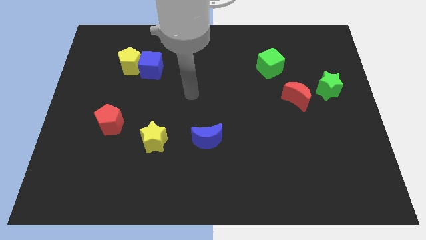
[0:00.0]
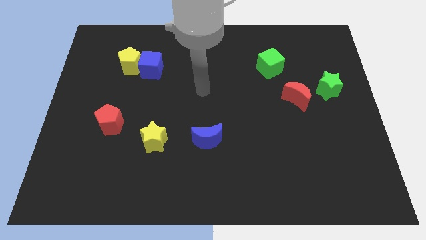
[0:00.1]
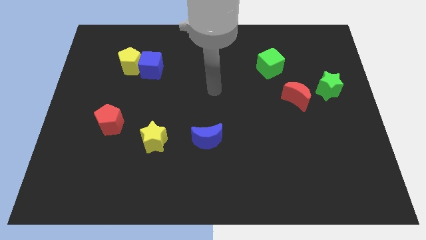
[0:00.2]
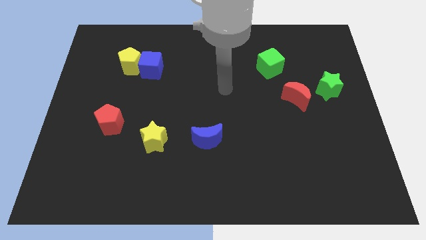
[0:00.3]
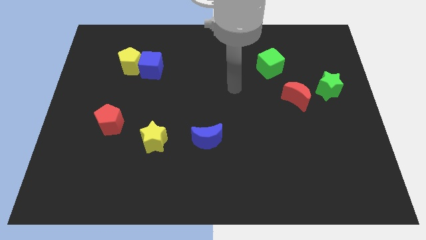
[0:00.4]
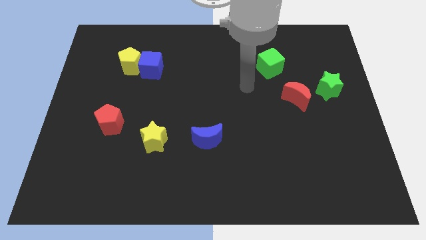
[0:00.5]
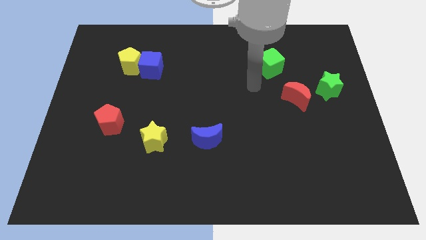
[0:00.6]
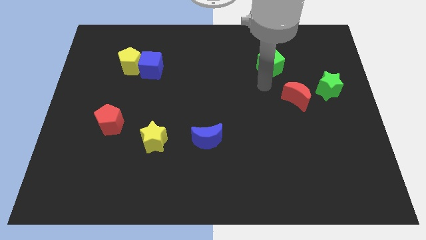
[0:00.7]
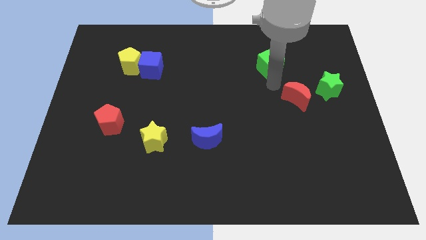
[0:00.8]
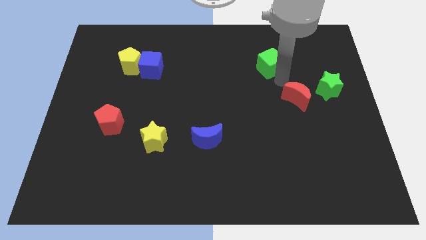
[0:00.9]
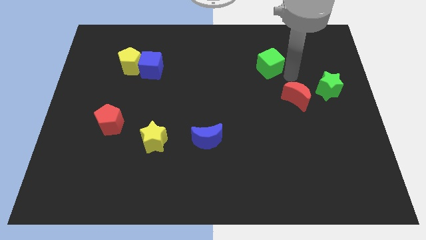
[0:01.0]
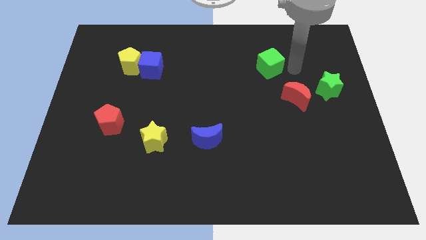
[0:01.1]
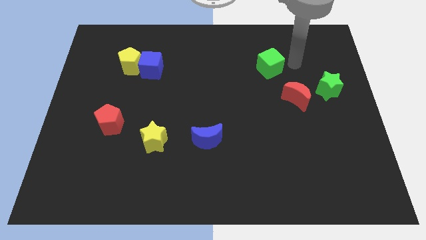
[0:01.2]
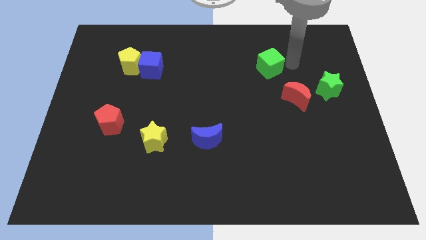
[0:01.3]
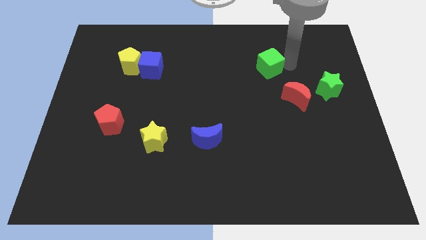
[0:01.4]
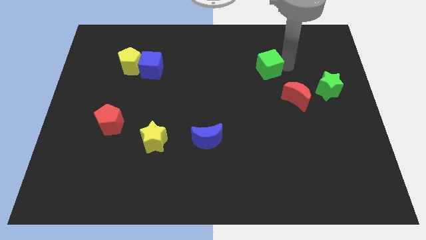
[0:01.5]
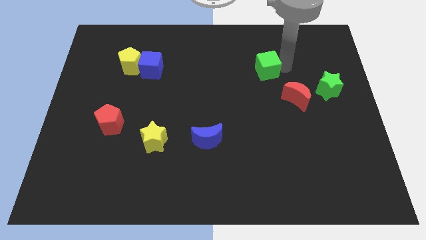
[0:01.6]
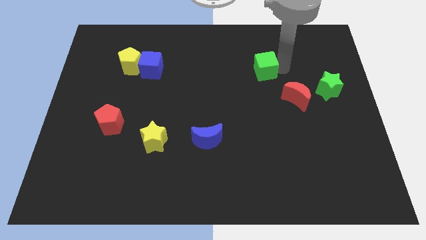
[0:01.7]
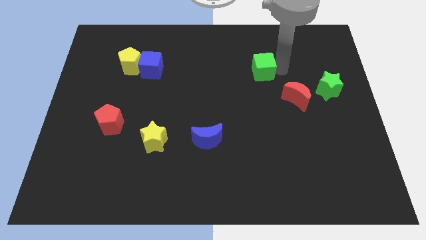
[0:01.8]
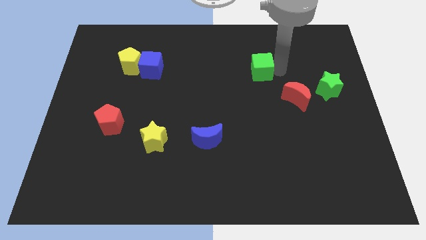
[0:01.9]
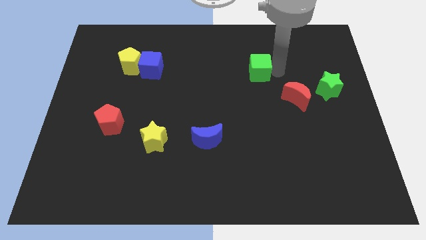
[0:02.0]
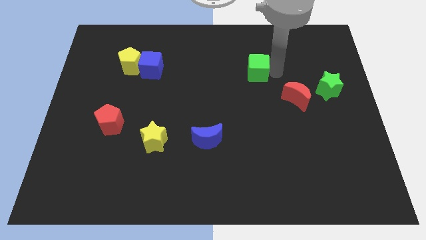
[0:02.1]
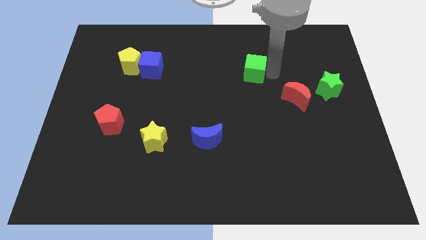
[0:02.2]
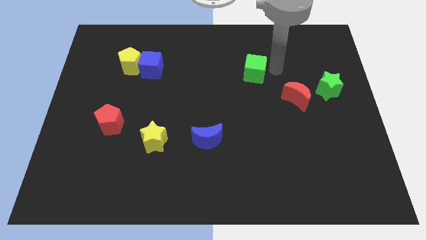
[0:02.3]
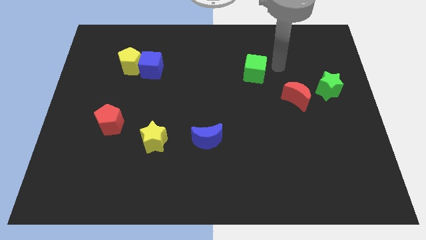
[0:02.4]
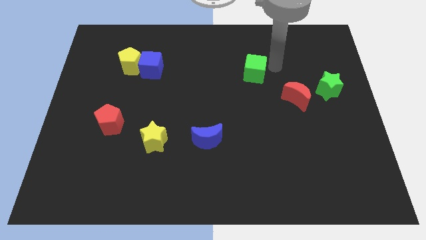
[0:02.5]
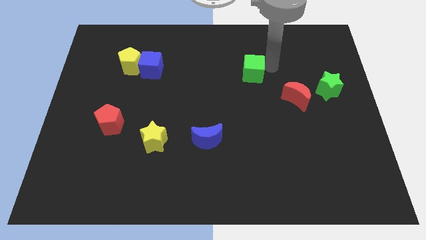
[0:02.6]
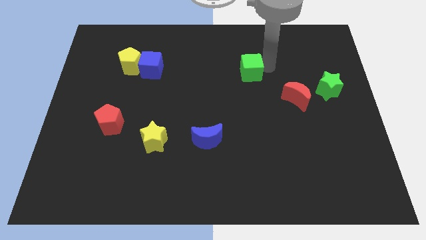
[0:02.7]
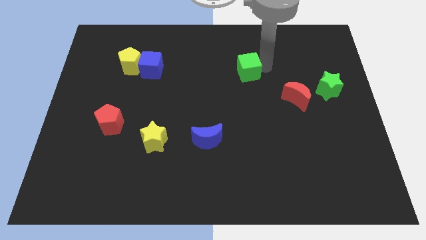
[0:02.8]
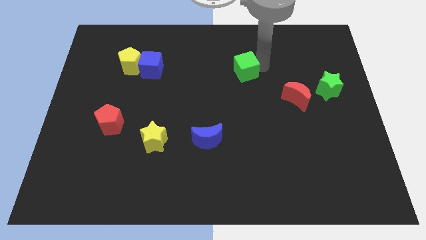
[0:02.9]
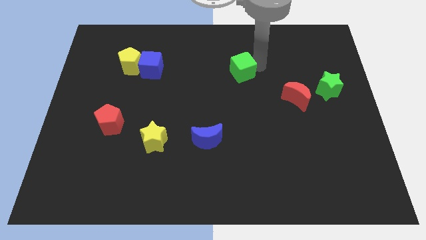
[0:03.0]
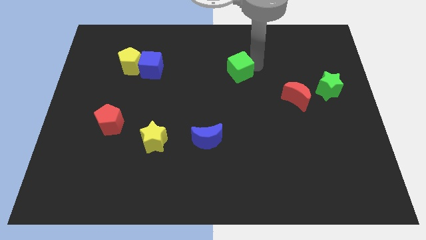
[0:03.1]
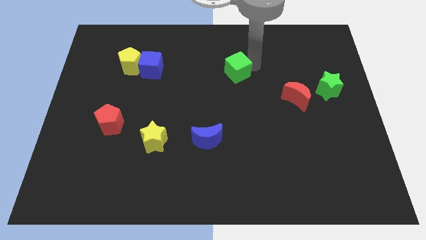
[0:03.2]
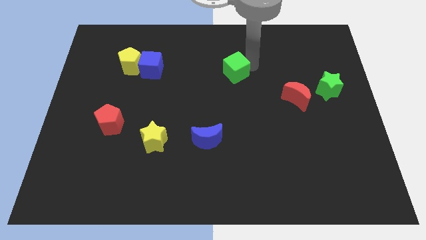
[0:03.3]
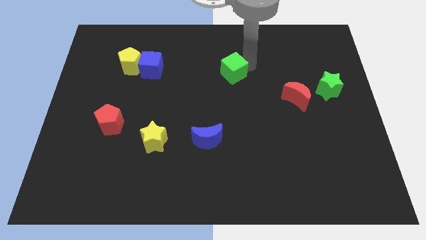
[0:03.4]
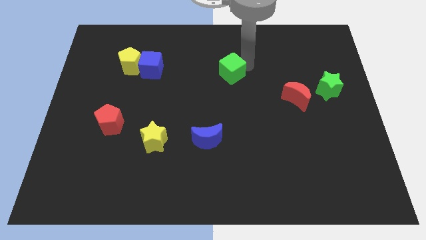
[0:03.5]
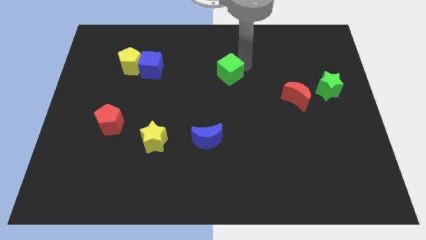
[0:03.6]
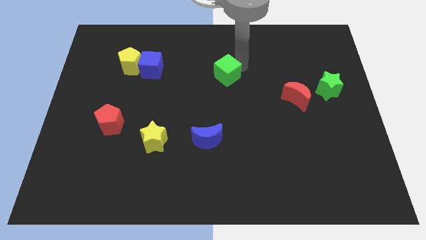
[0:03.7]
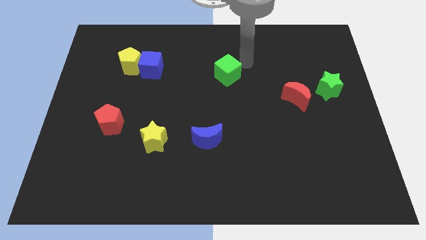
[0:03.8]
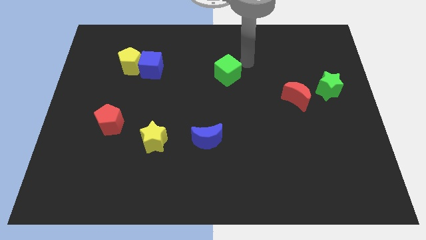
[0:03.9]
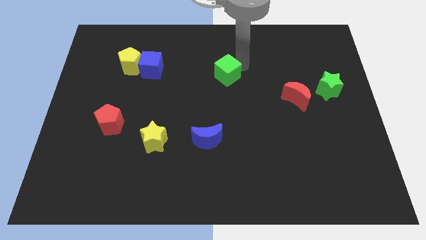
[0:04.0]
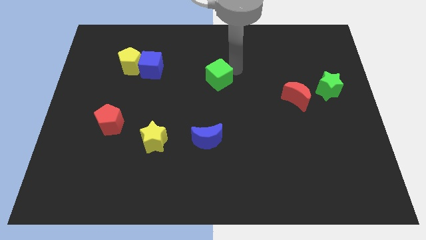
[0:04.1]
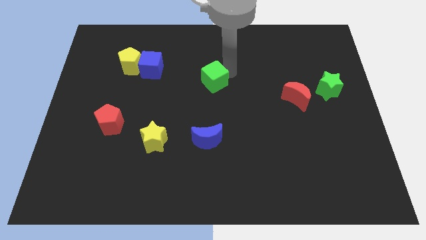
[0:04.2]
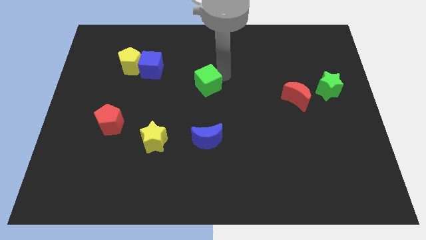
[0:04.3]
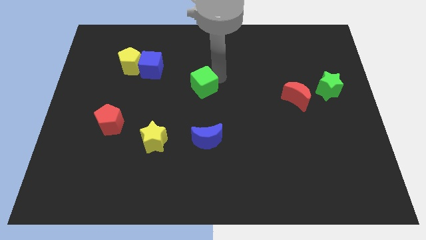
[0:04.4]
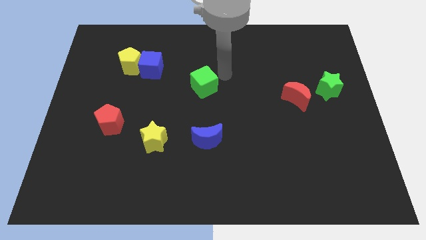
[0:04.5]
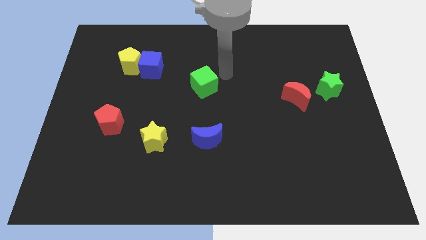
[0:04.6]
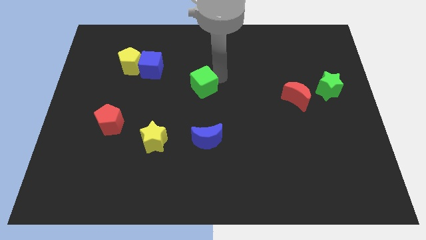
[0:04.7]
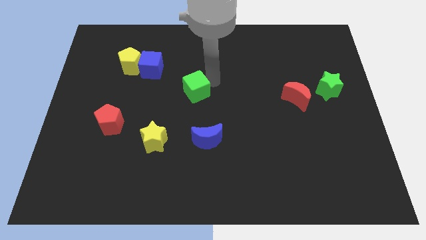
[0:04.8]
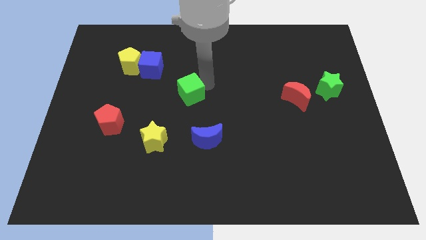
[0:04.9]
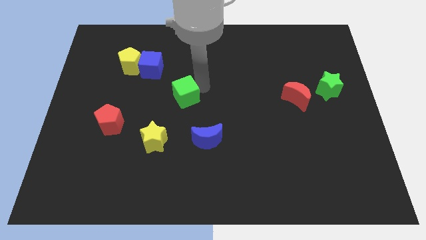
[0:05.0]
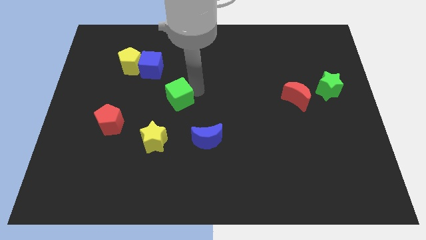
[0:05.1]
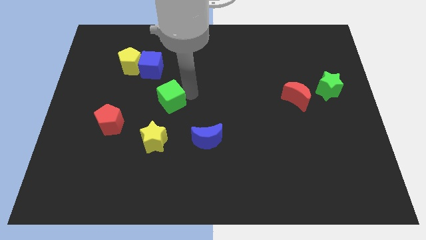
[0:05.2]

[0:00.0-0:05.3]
move the green cube to the top side of the yellow star

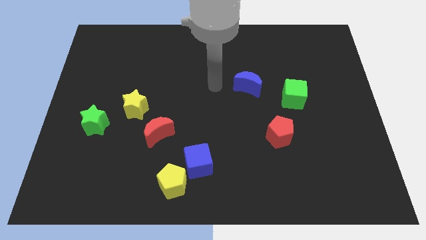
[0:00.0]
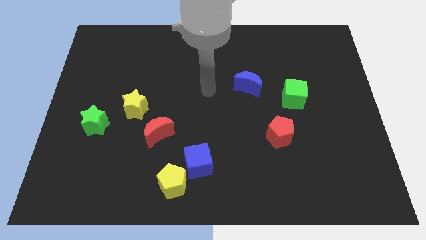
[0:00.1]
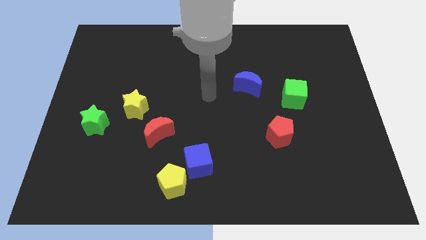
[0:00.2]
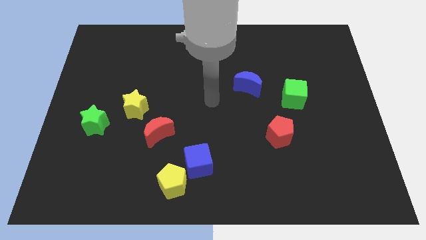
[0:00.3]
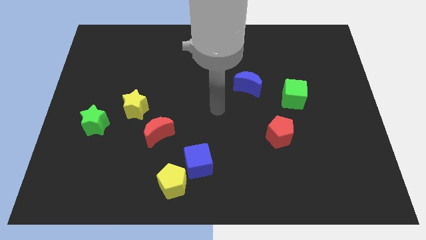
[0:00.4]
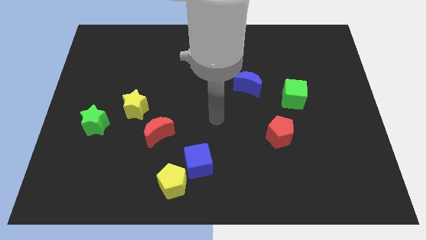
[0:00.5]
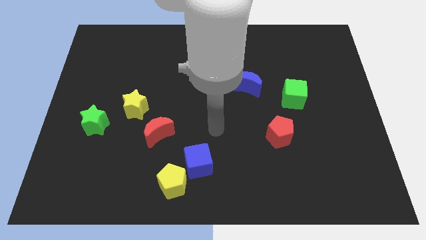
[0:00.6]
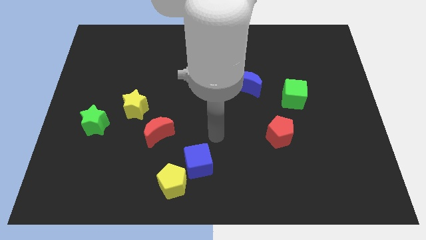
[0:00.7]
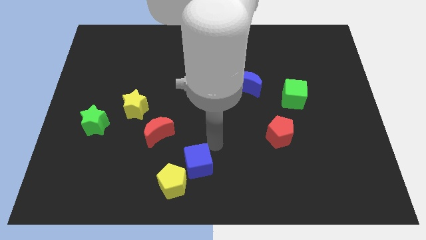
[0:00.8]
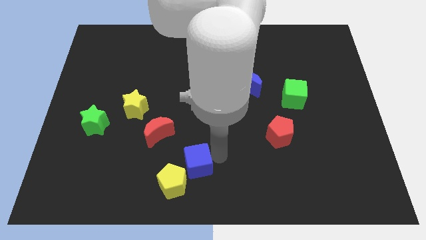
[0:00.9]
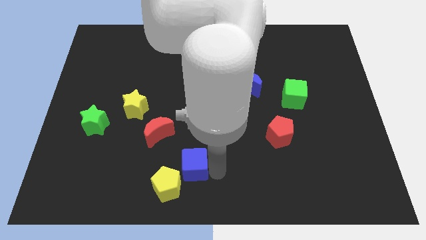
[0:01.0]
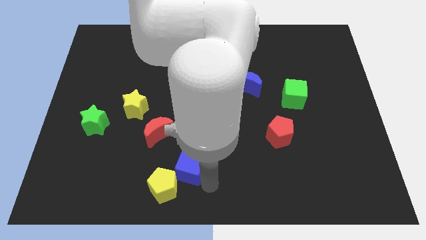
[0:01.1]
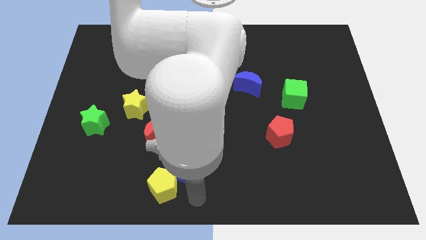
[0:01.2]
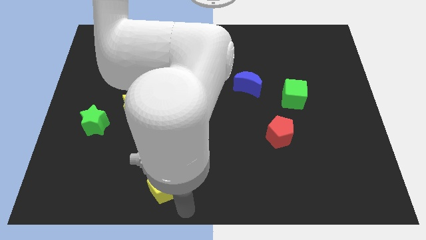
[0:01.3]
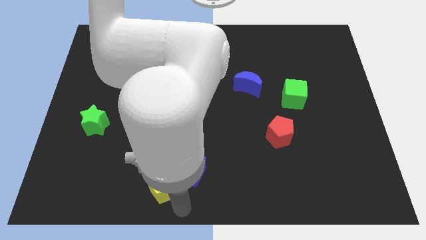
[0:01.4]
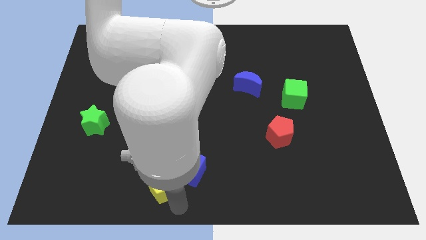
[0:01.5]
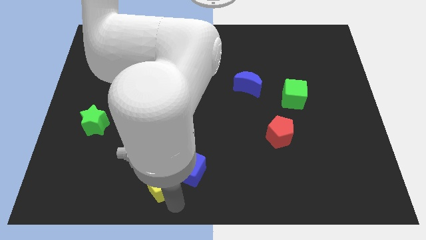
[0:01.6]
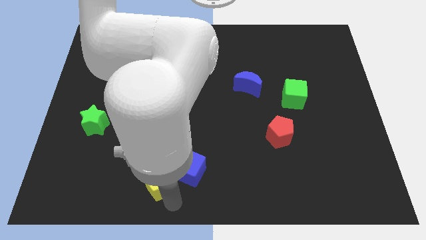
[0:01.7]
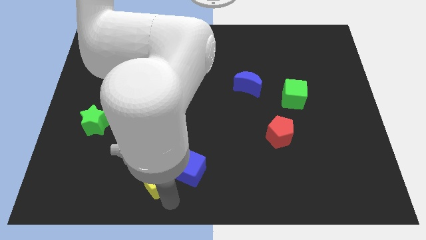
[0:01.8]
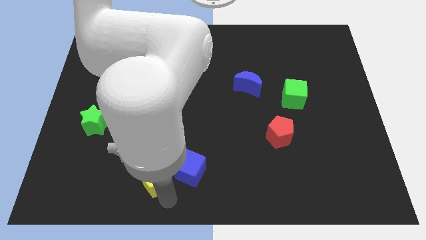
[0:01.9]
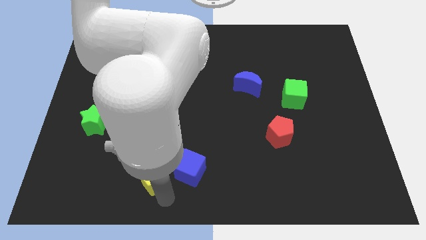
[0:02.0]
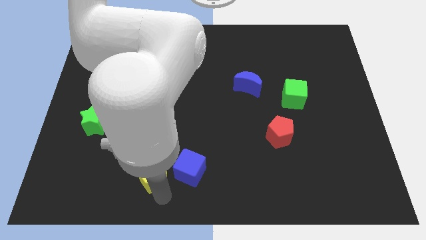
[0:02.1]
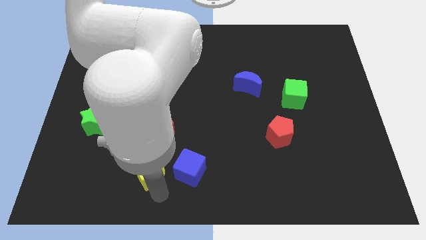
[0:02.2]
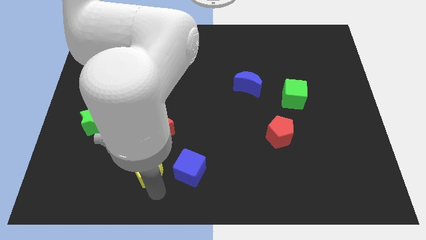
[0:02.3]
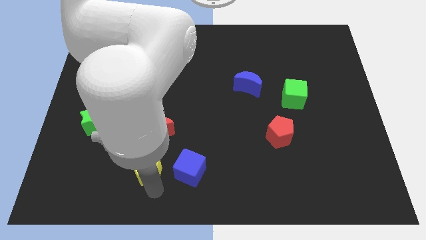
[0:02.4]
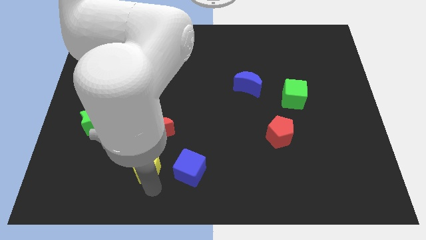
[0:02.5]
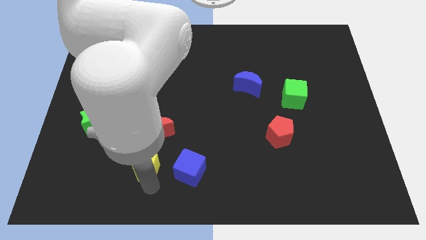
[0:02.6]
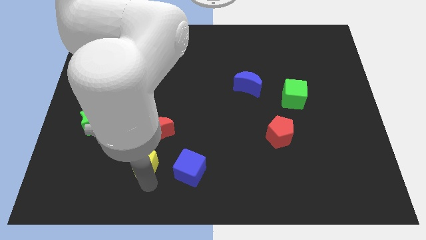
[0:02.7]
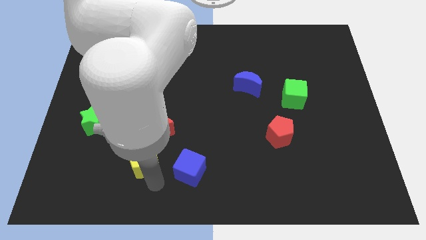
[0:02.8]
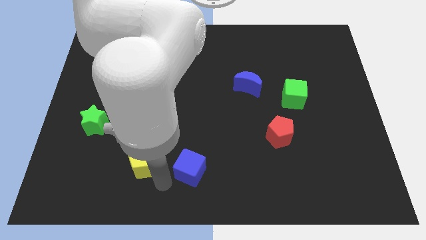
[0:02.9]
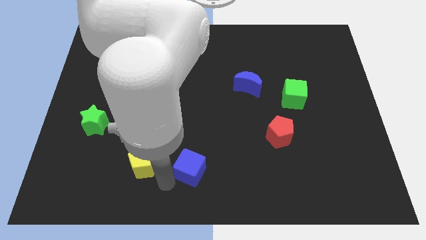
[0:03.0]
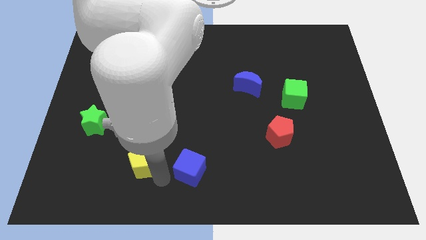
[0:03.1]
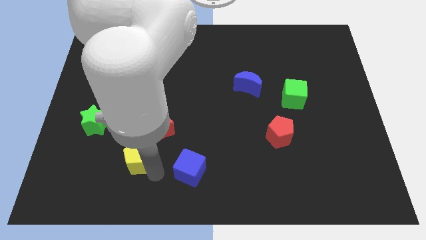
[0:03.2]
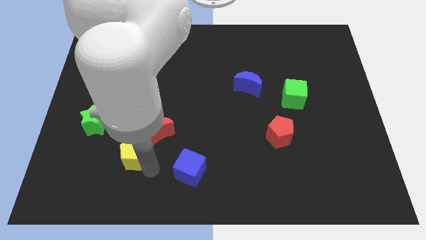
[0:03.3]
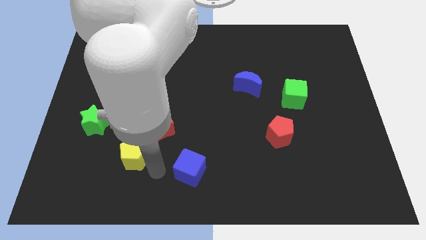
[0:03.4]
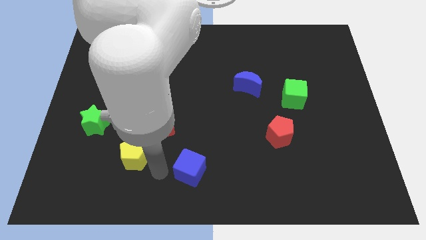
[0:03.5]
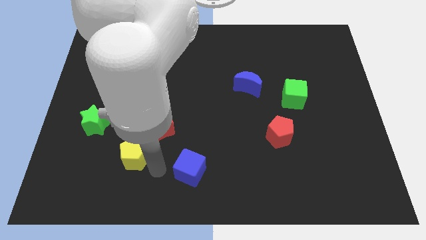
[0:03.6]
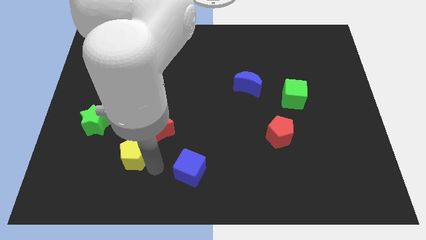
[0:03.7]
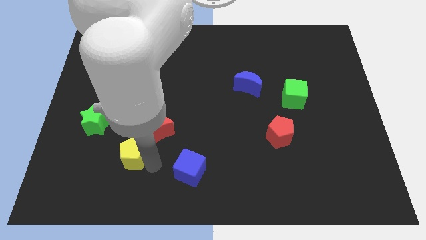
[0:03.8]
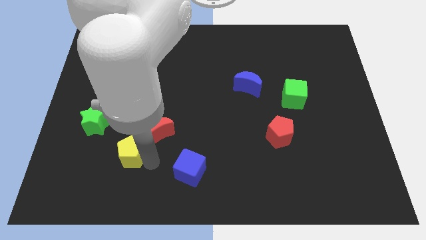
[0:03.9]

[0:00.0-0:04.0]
put the yellow pentagon to the bottom right side of the green star
